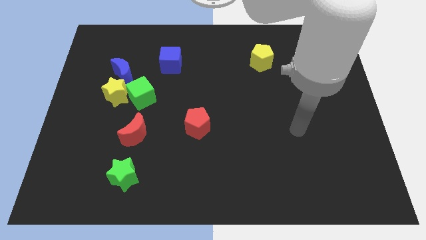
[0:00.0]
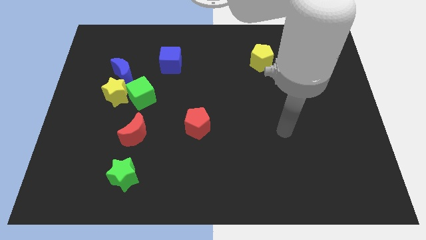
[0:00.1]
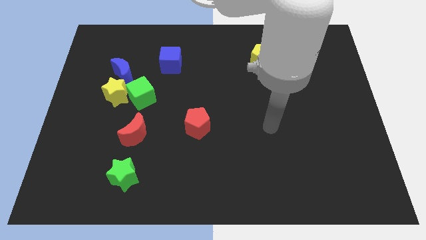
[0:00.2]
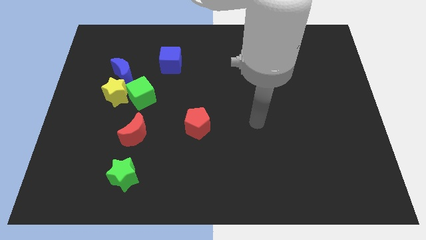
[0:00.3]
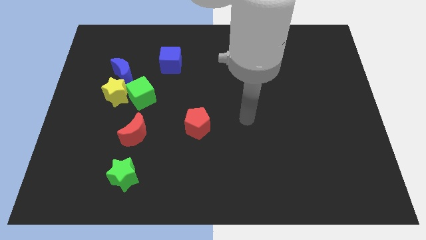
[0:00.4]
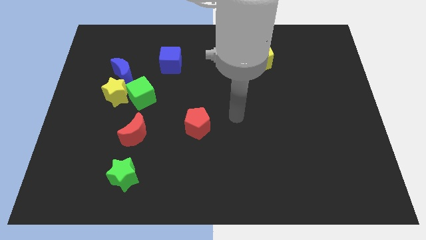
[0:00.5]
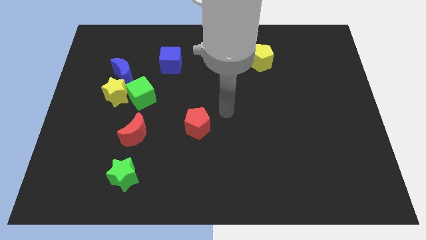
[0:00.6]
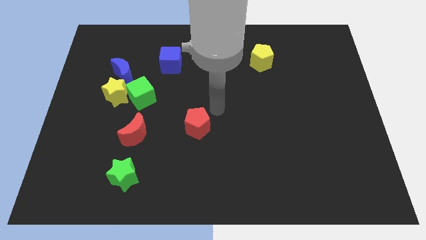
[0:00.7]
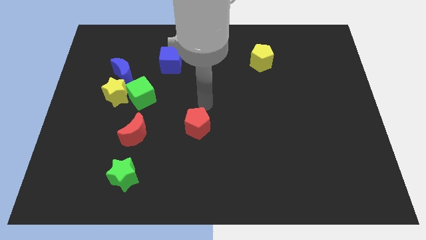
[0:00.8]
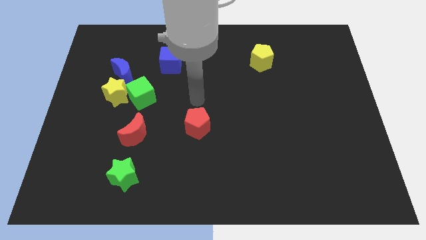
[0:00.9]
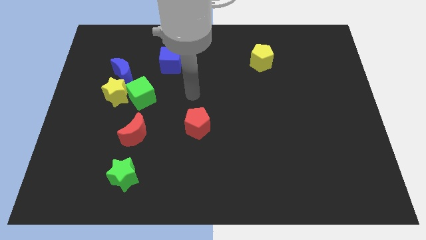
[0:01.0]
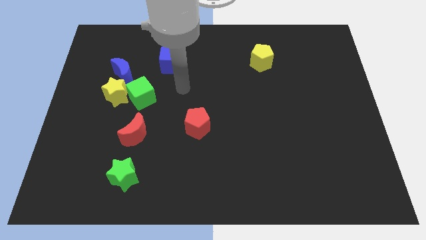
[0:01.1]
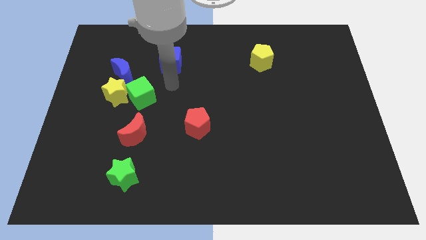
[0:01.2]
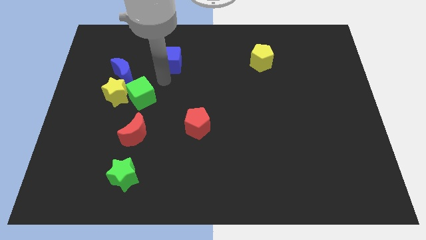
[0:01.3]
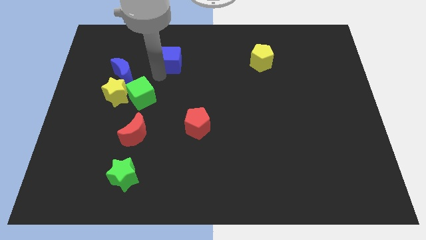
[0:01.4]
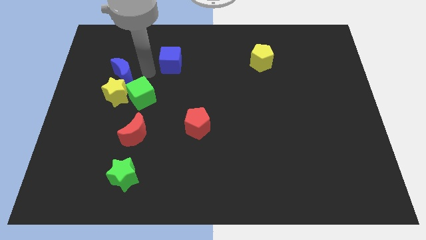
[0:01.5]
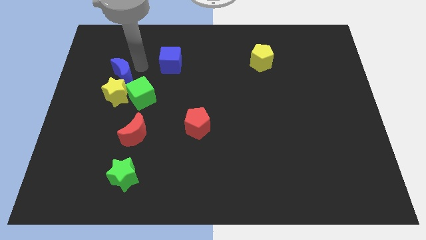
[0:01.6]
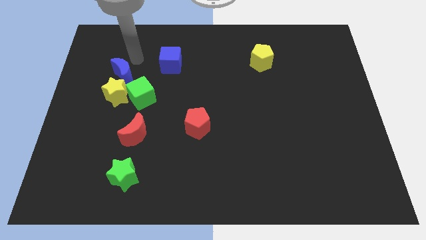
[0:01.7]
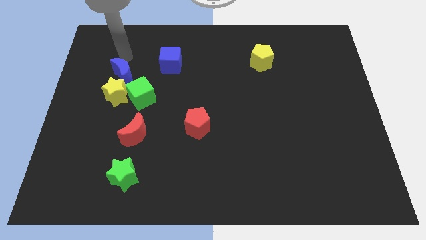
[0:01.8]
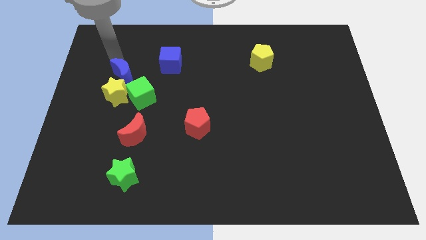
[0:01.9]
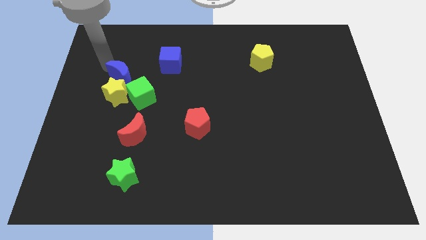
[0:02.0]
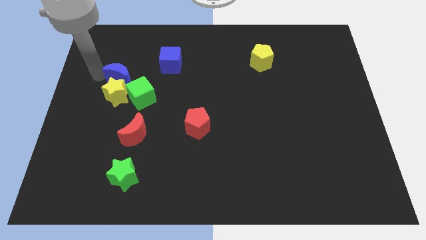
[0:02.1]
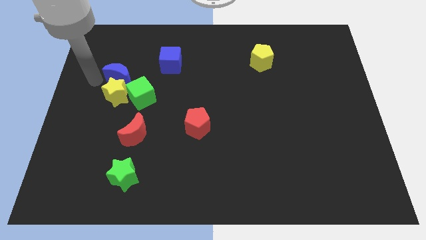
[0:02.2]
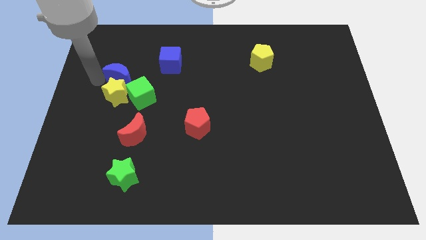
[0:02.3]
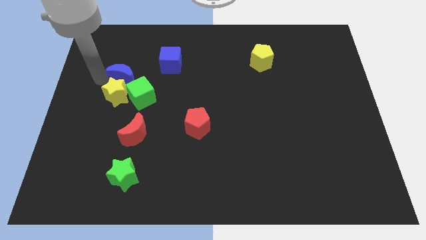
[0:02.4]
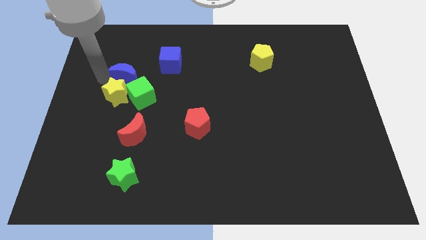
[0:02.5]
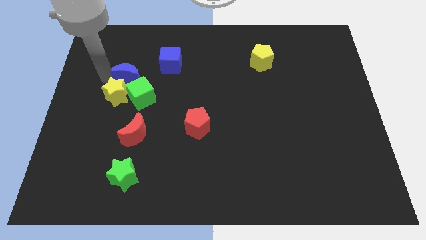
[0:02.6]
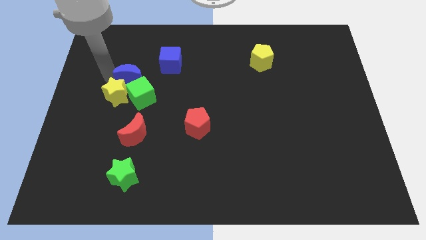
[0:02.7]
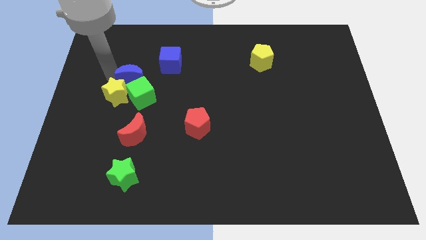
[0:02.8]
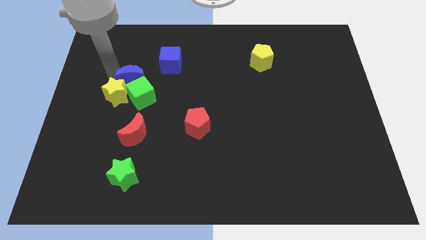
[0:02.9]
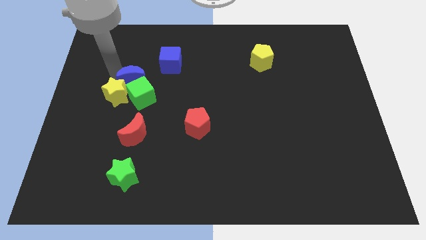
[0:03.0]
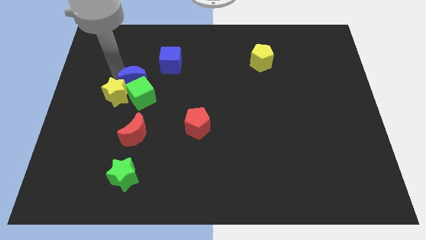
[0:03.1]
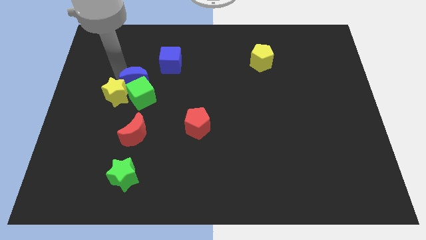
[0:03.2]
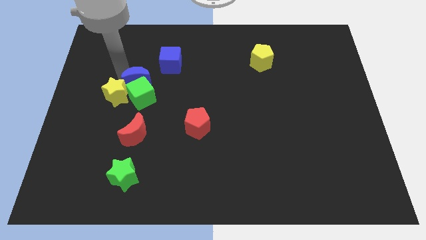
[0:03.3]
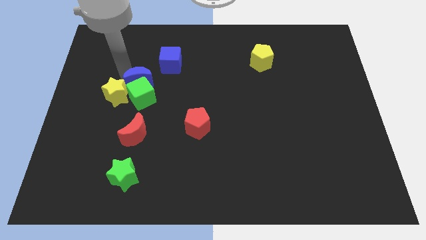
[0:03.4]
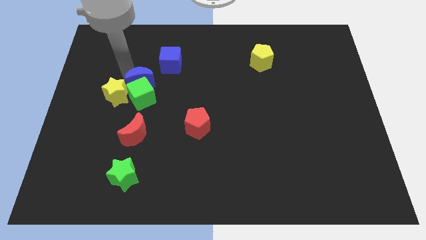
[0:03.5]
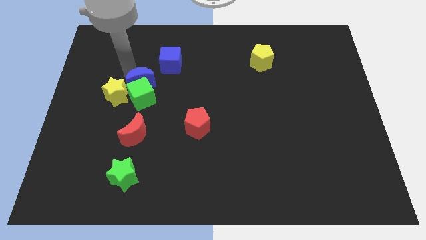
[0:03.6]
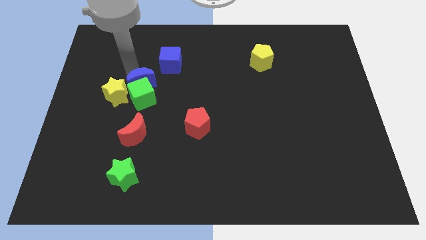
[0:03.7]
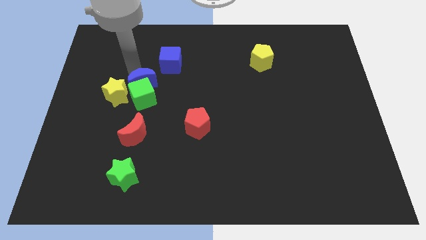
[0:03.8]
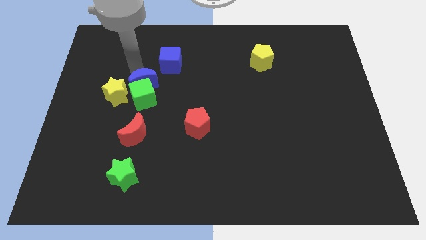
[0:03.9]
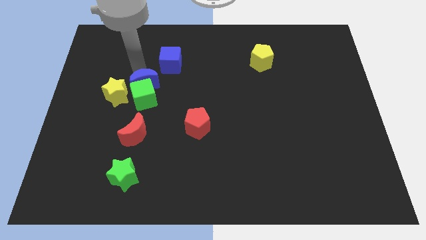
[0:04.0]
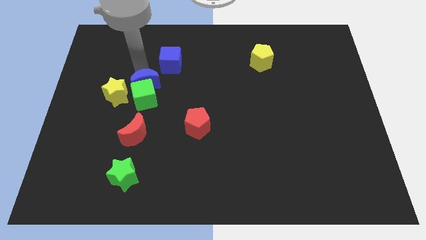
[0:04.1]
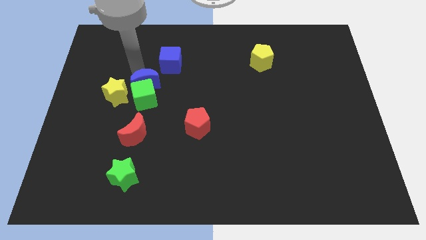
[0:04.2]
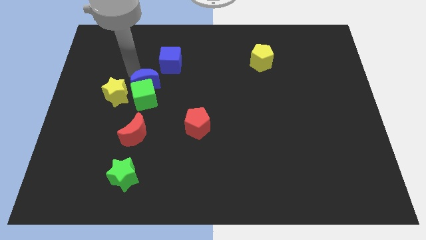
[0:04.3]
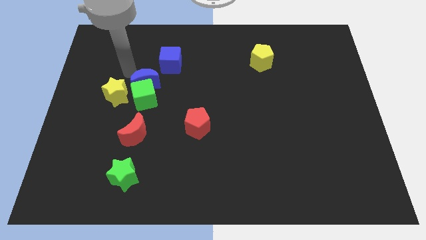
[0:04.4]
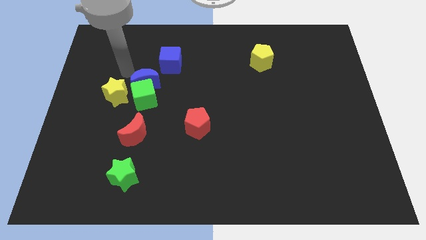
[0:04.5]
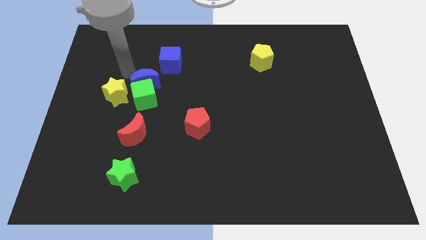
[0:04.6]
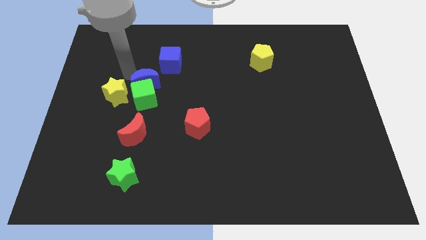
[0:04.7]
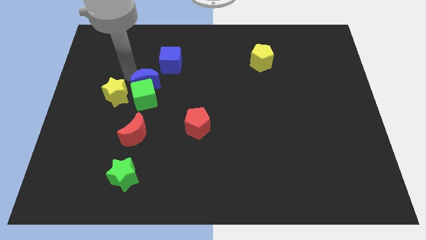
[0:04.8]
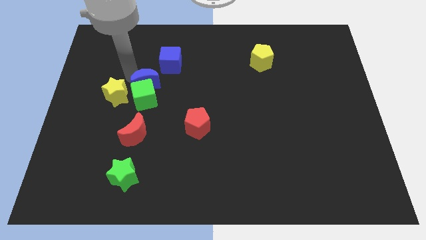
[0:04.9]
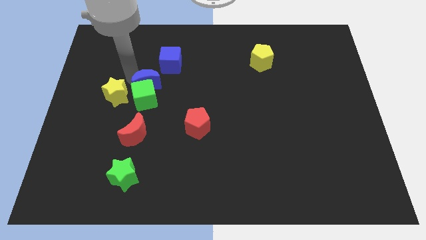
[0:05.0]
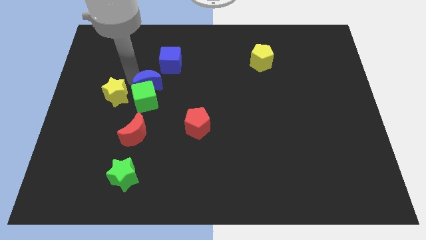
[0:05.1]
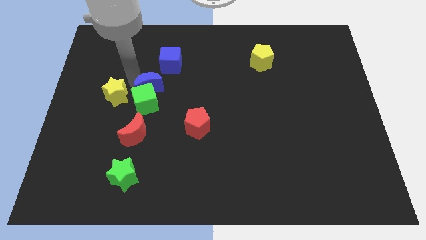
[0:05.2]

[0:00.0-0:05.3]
push the blue moon to the bottom of the blue cube
